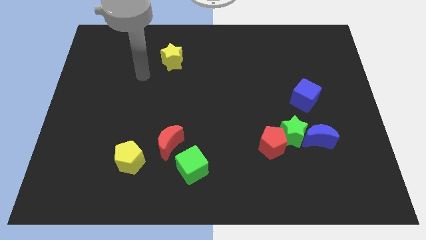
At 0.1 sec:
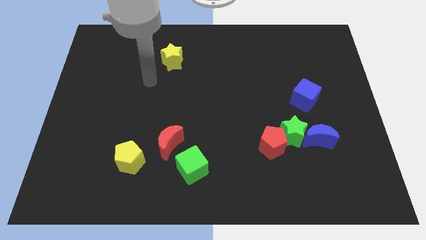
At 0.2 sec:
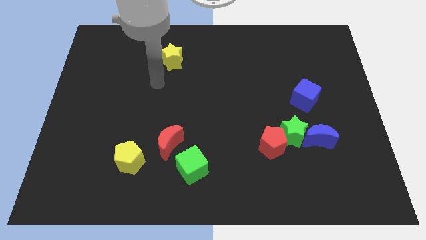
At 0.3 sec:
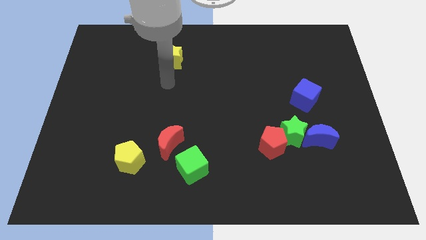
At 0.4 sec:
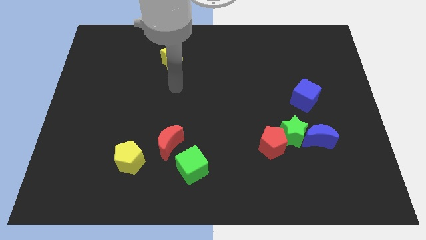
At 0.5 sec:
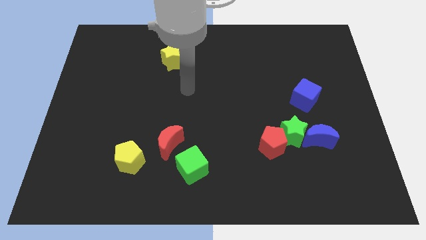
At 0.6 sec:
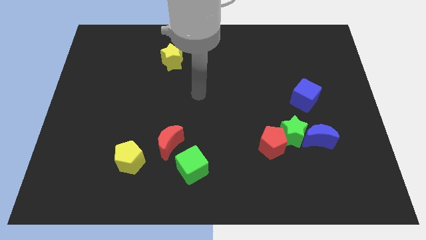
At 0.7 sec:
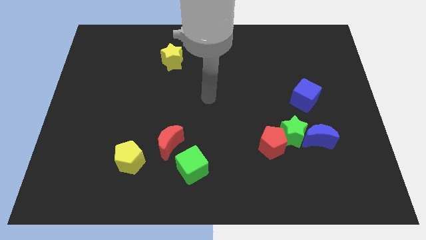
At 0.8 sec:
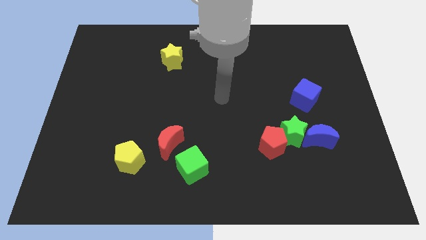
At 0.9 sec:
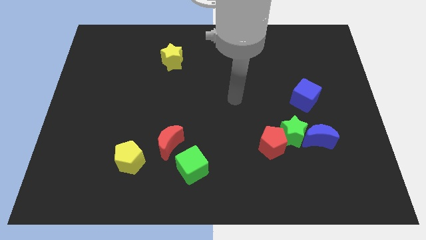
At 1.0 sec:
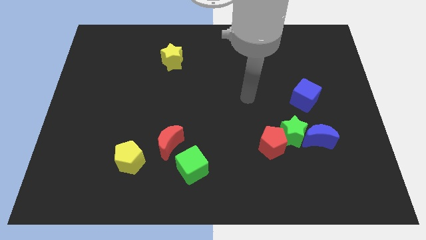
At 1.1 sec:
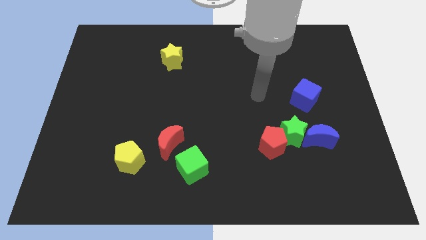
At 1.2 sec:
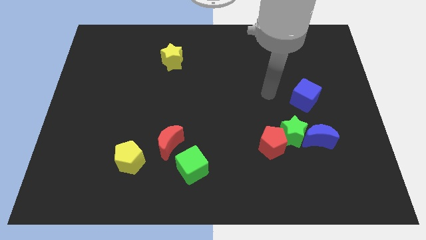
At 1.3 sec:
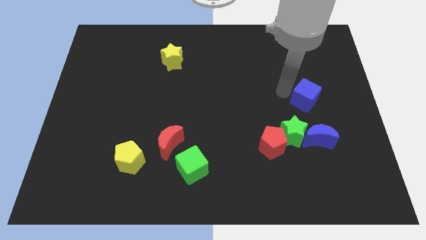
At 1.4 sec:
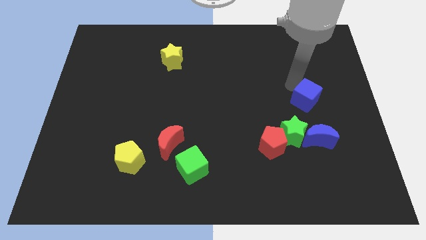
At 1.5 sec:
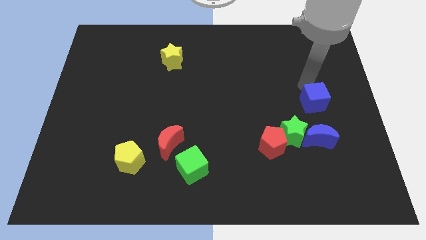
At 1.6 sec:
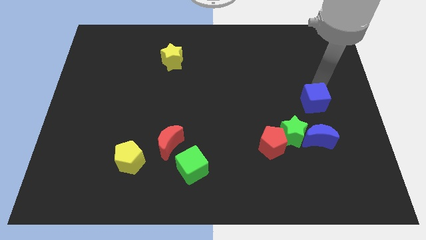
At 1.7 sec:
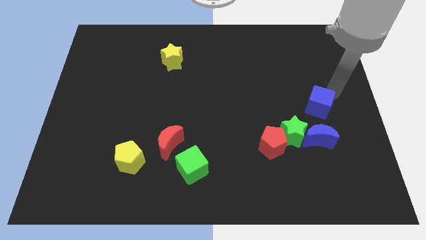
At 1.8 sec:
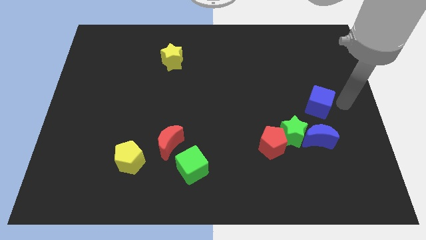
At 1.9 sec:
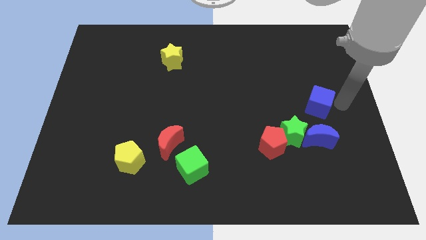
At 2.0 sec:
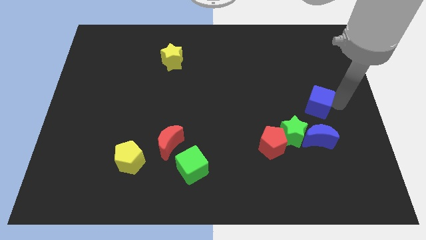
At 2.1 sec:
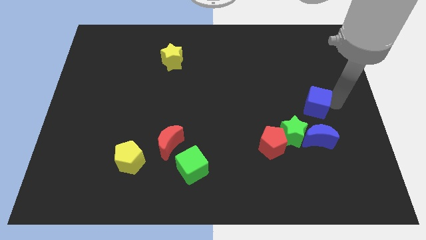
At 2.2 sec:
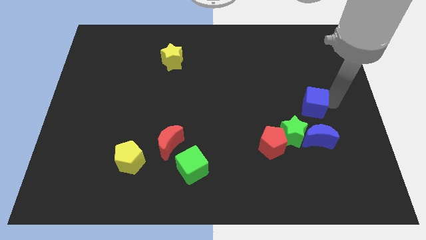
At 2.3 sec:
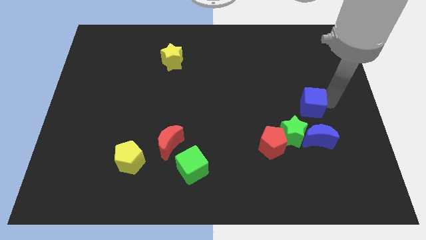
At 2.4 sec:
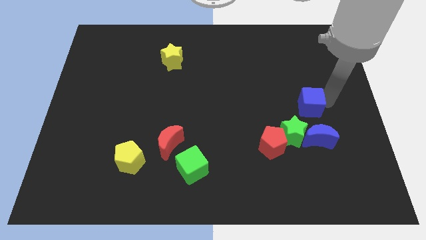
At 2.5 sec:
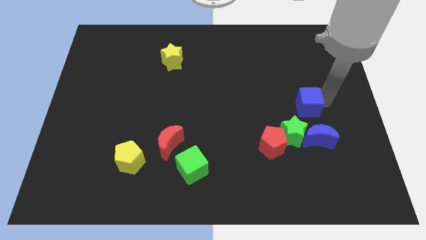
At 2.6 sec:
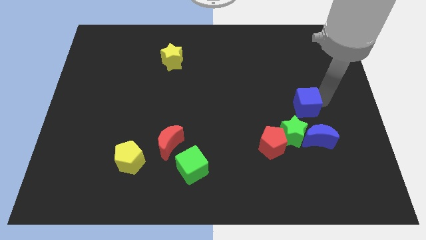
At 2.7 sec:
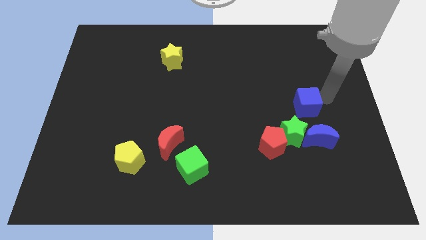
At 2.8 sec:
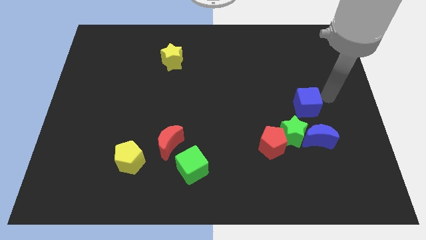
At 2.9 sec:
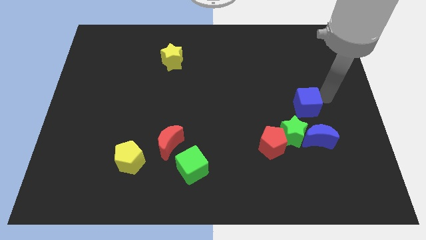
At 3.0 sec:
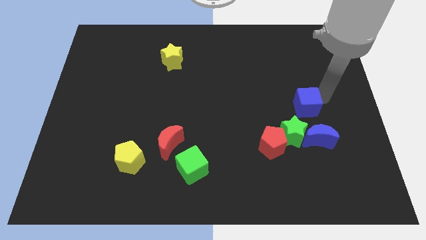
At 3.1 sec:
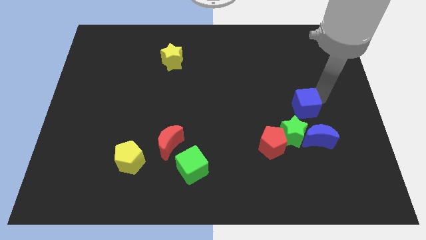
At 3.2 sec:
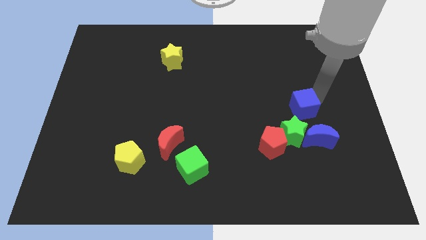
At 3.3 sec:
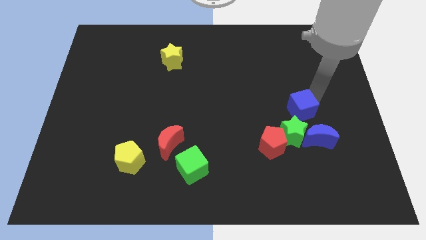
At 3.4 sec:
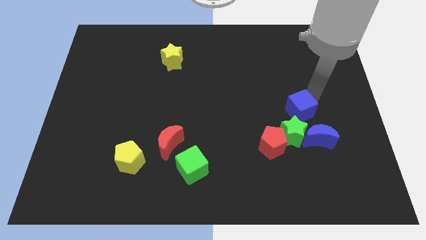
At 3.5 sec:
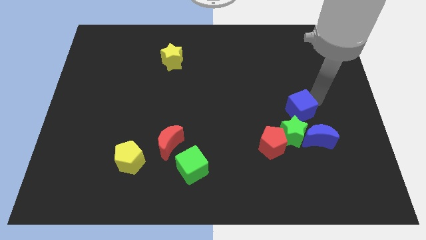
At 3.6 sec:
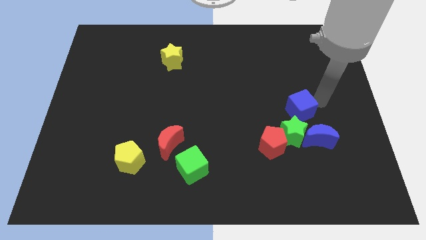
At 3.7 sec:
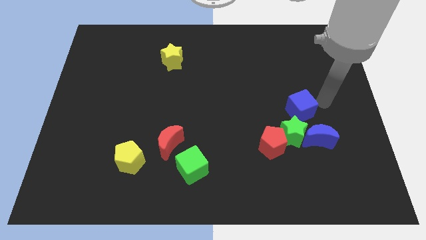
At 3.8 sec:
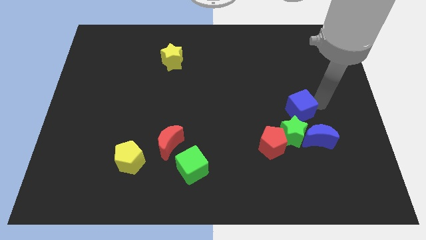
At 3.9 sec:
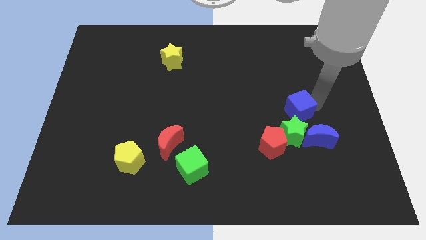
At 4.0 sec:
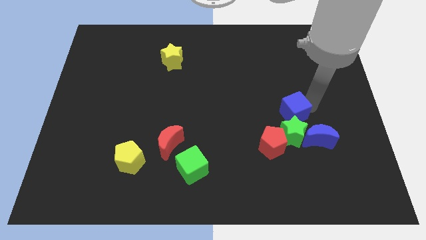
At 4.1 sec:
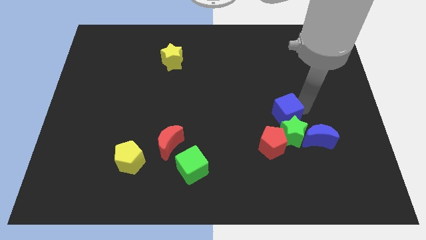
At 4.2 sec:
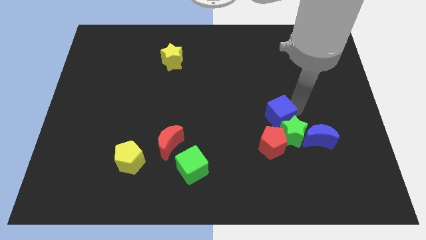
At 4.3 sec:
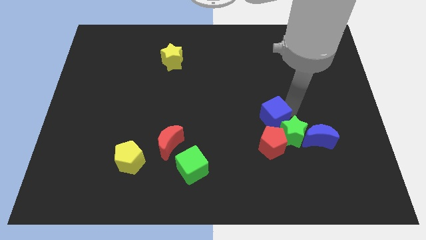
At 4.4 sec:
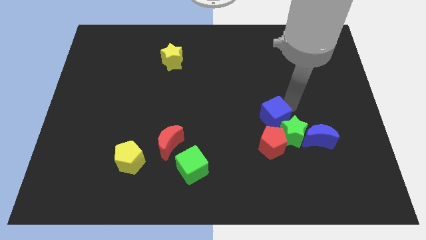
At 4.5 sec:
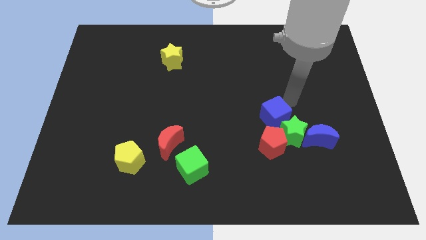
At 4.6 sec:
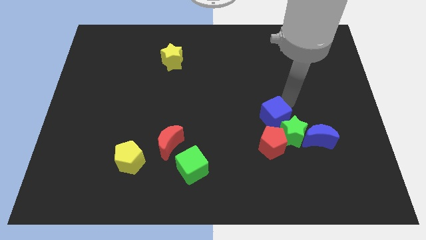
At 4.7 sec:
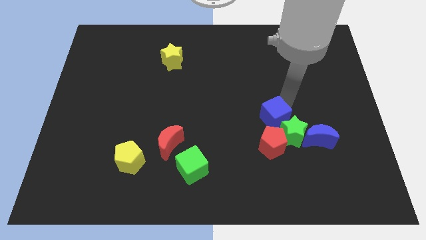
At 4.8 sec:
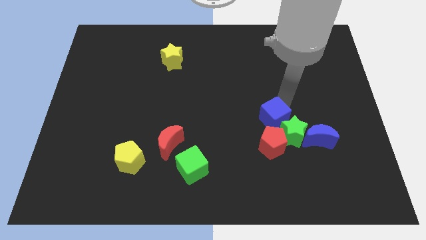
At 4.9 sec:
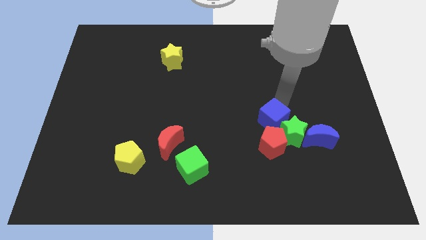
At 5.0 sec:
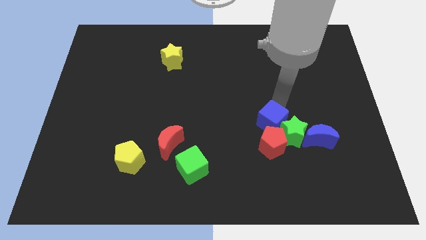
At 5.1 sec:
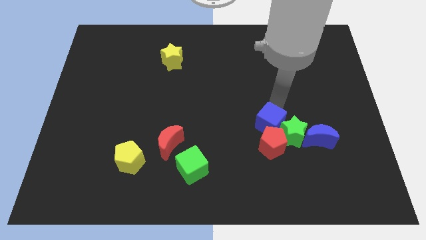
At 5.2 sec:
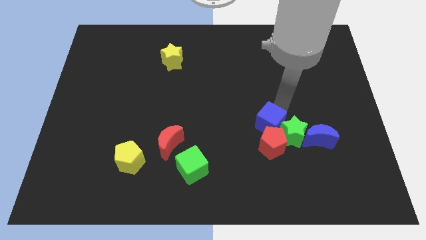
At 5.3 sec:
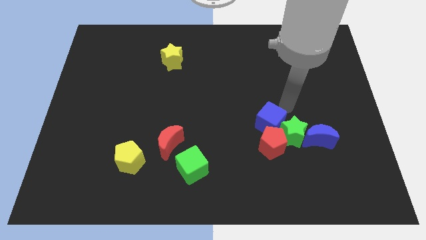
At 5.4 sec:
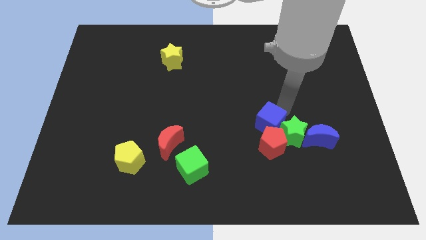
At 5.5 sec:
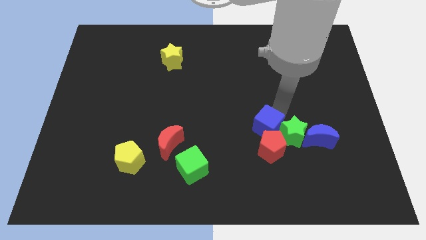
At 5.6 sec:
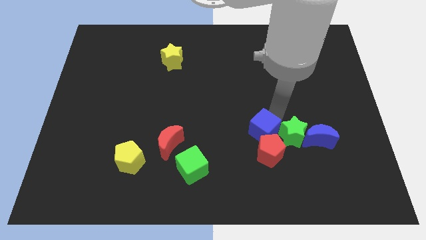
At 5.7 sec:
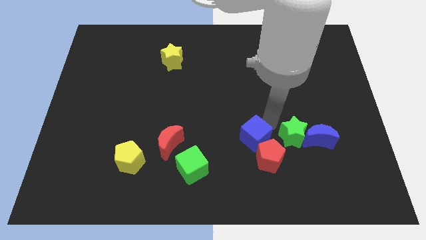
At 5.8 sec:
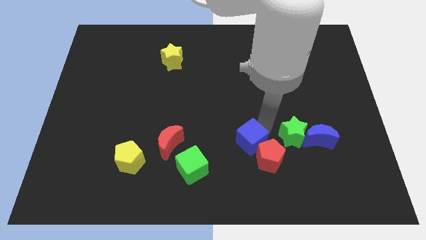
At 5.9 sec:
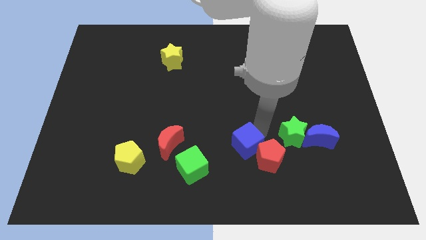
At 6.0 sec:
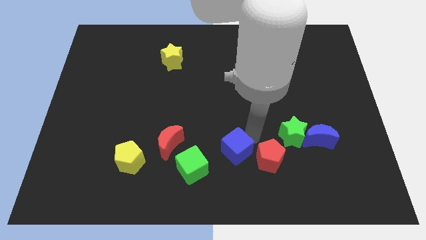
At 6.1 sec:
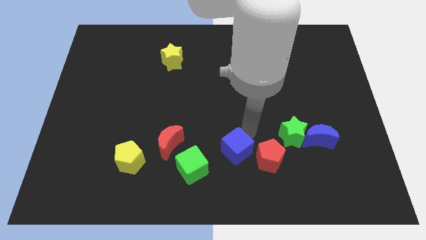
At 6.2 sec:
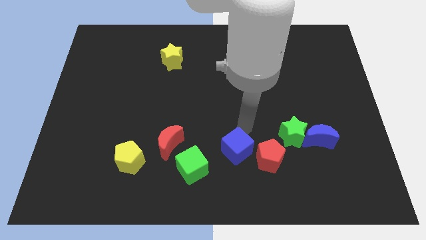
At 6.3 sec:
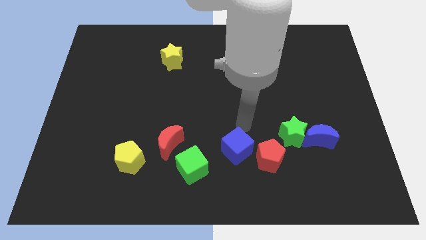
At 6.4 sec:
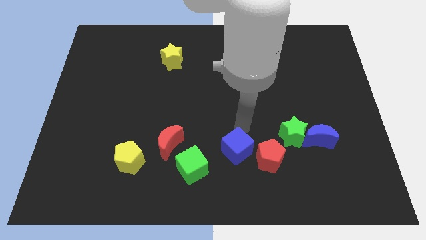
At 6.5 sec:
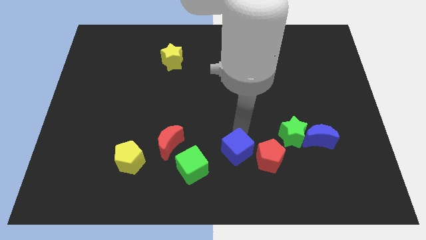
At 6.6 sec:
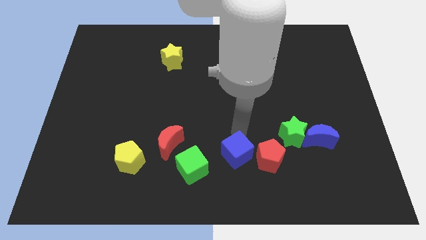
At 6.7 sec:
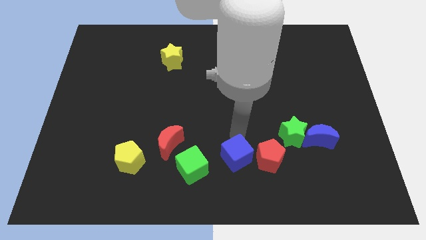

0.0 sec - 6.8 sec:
slide the blue cube to the bottom
